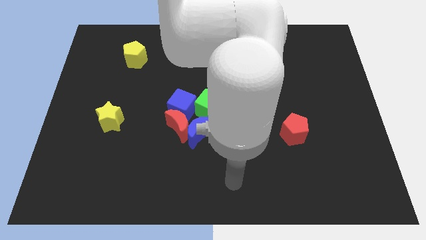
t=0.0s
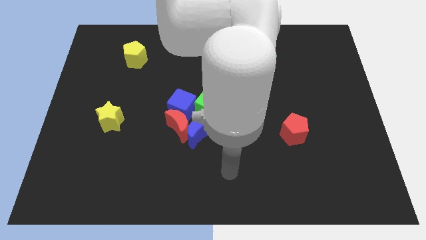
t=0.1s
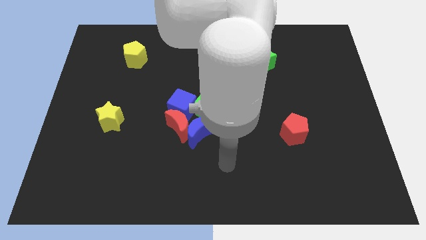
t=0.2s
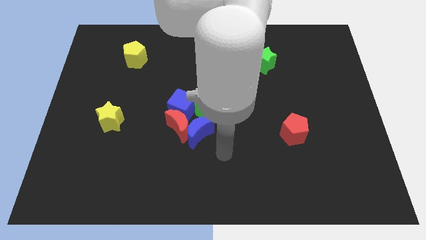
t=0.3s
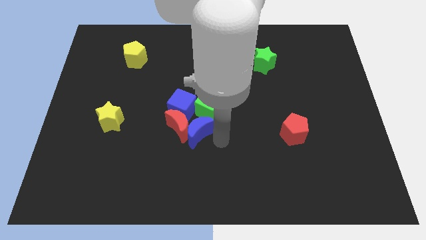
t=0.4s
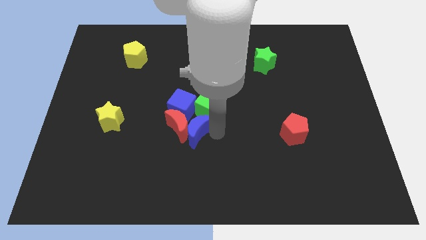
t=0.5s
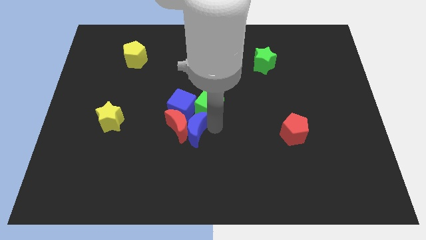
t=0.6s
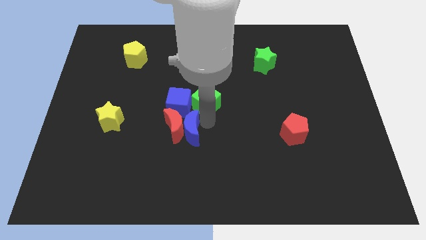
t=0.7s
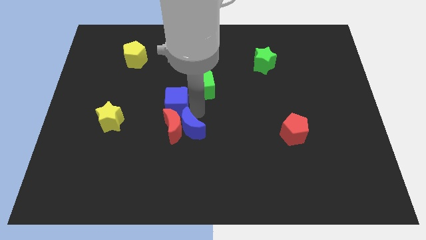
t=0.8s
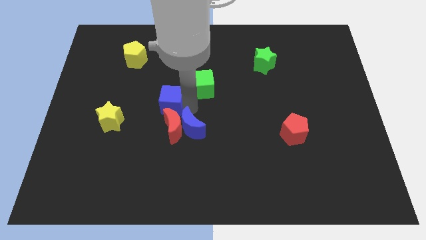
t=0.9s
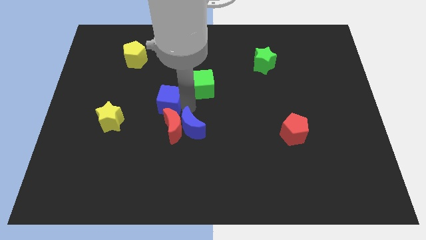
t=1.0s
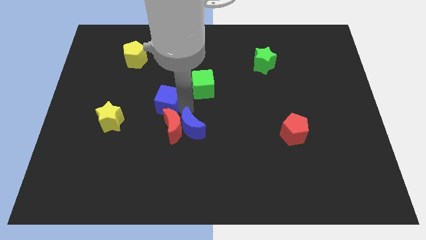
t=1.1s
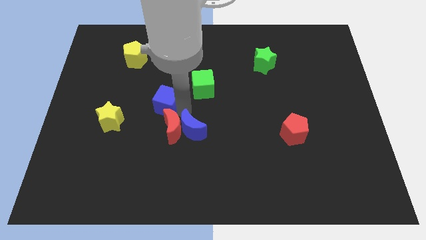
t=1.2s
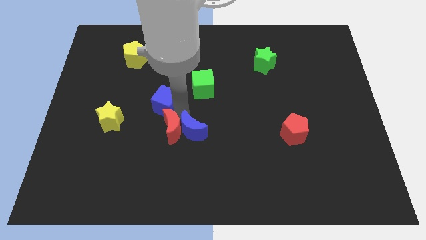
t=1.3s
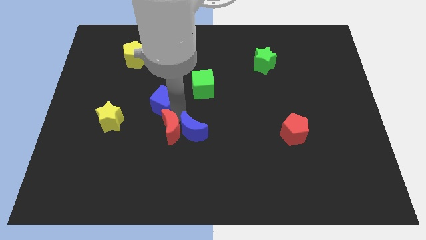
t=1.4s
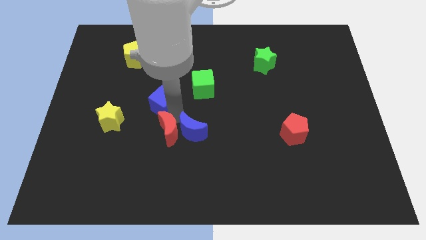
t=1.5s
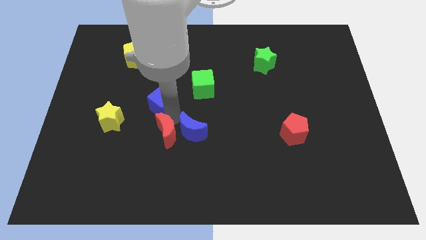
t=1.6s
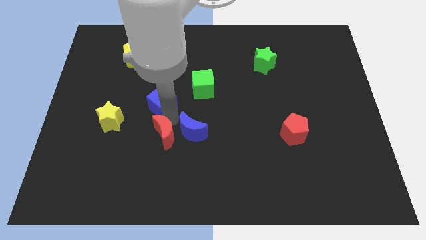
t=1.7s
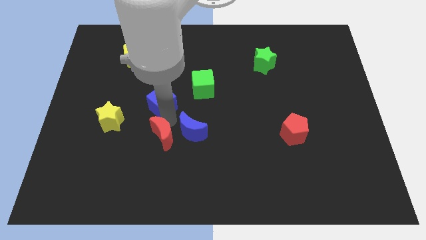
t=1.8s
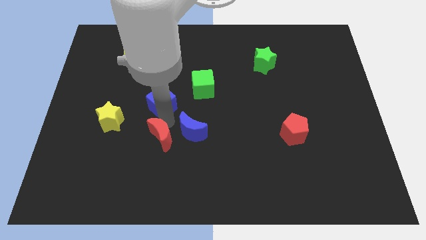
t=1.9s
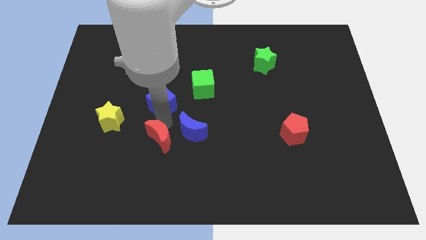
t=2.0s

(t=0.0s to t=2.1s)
separate the red moon from the clump

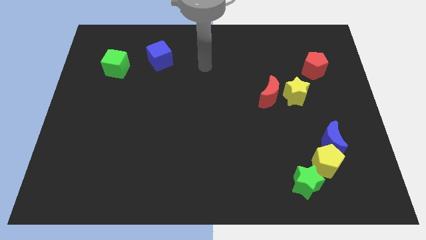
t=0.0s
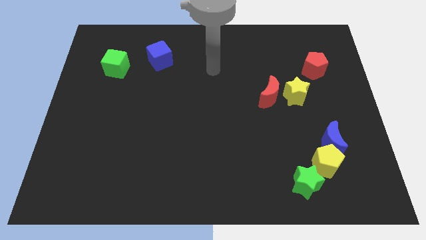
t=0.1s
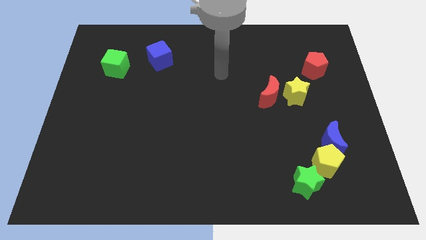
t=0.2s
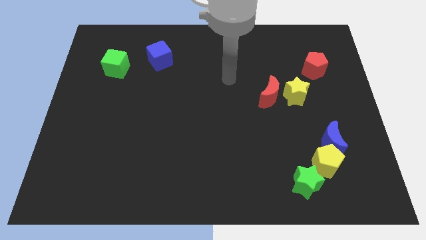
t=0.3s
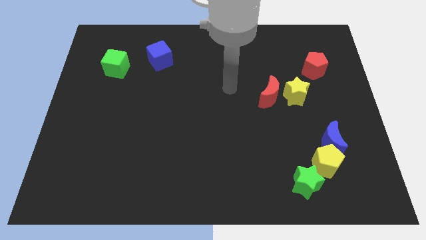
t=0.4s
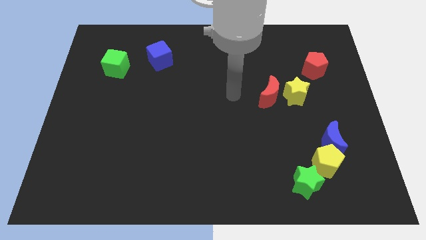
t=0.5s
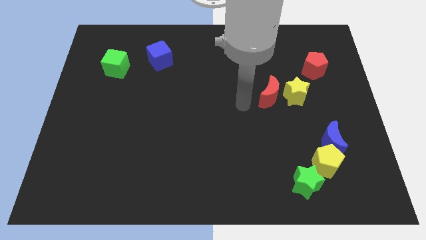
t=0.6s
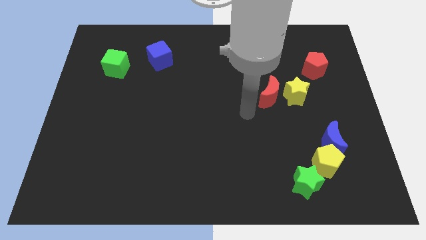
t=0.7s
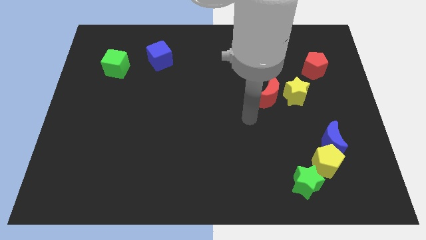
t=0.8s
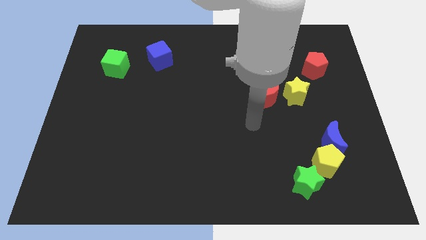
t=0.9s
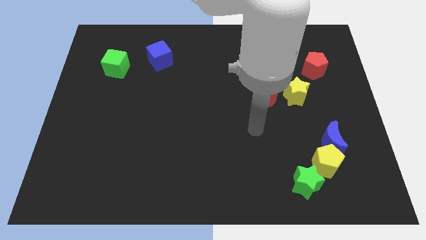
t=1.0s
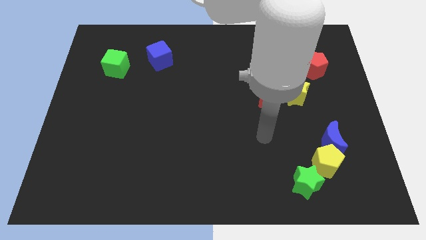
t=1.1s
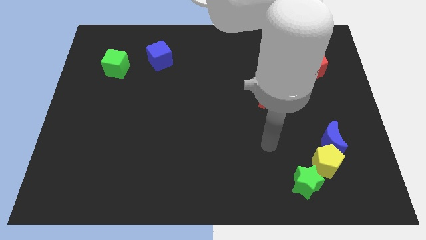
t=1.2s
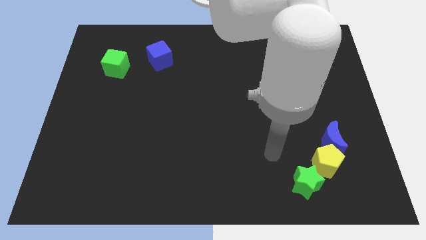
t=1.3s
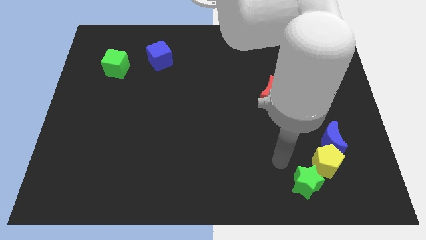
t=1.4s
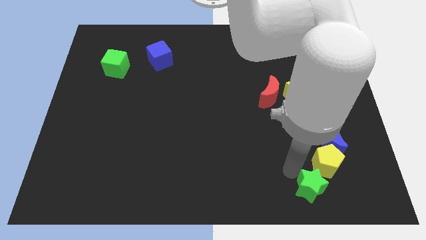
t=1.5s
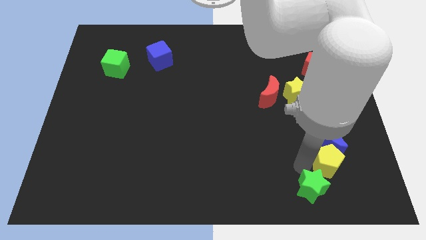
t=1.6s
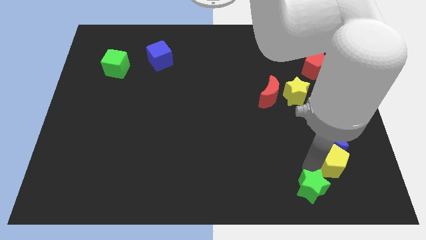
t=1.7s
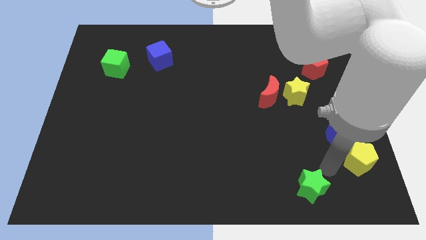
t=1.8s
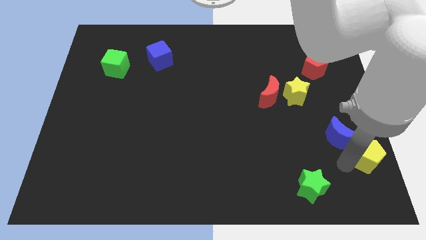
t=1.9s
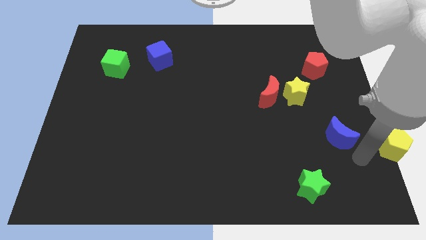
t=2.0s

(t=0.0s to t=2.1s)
pull the blue moon apart from the yellow pentagon

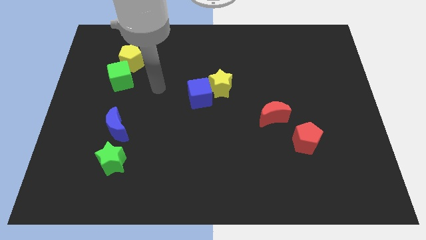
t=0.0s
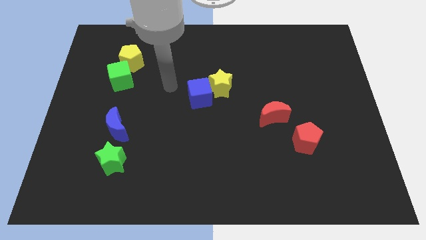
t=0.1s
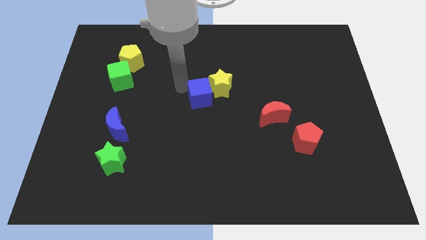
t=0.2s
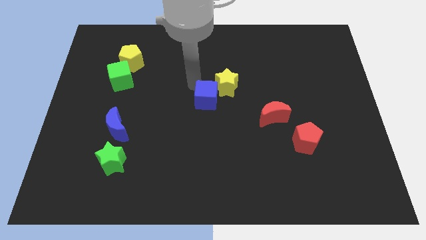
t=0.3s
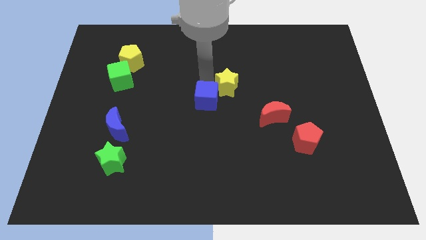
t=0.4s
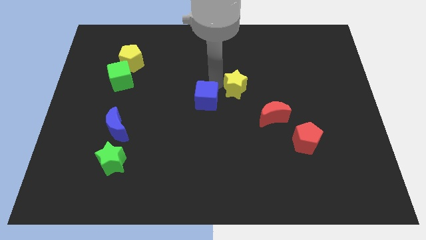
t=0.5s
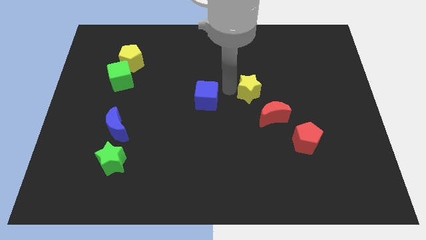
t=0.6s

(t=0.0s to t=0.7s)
move the blue cube away from the yellow star

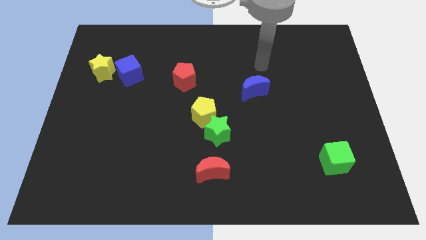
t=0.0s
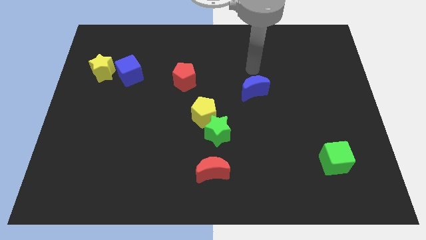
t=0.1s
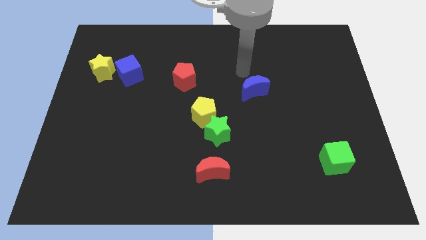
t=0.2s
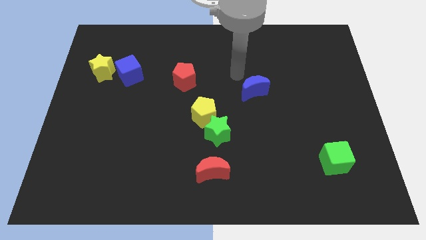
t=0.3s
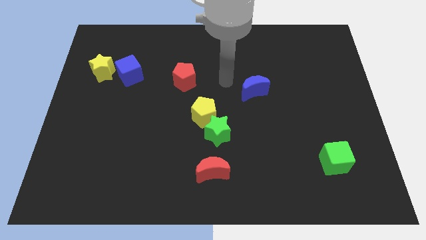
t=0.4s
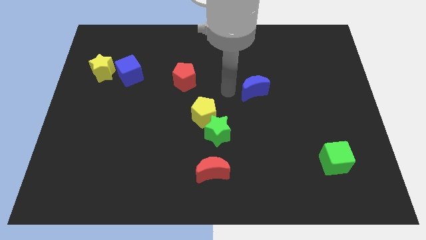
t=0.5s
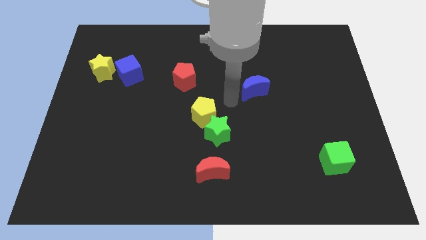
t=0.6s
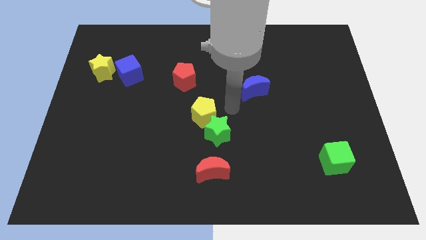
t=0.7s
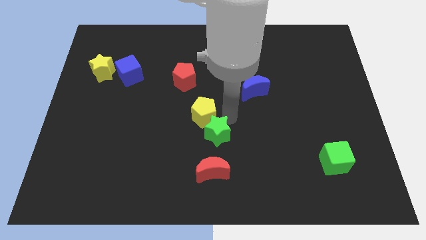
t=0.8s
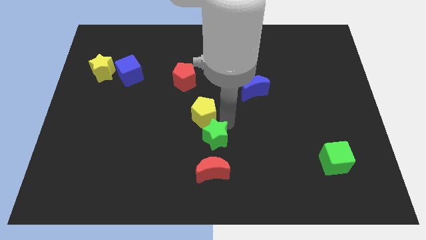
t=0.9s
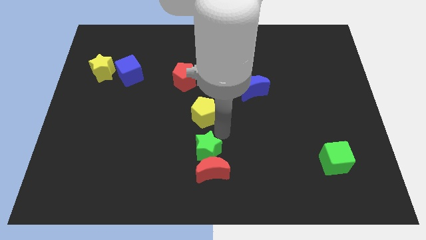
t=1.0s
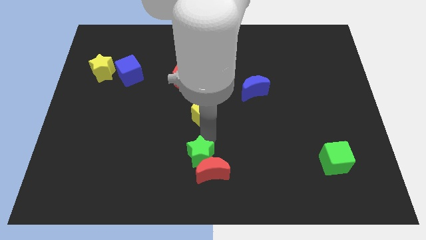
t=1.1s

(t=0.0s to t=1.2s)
pull the yellow pentagon apart from the green star

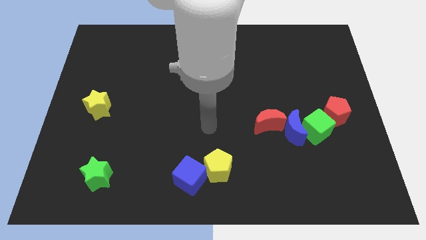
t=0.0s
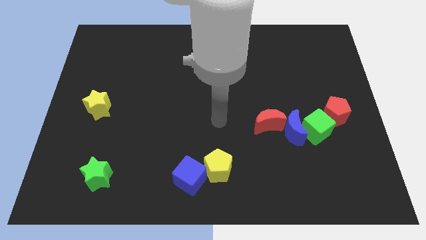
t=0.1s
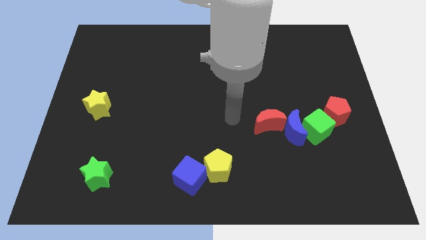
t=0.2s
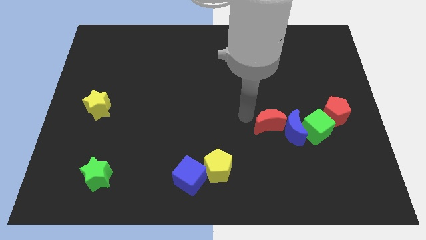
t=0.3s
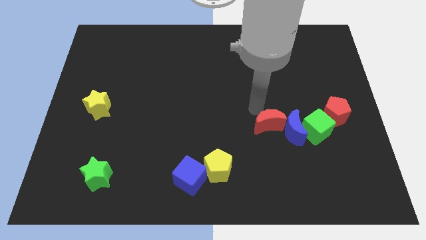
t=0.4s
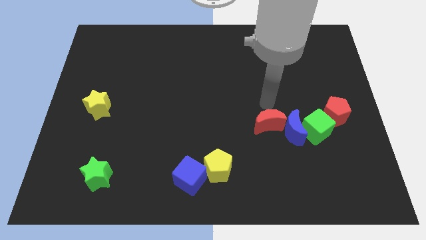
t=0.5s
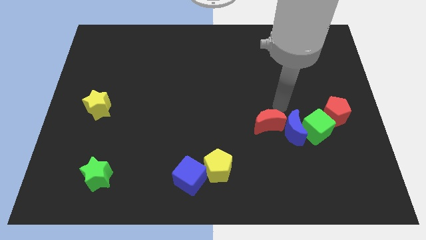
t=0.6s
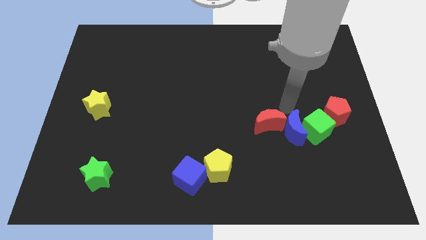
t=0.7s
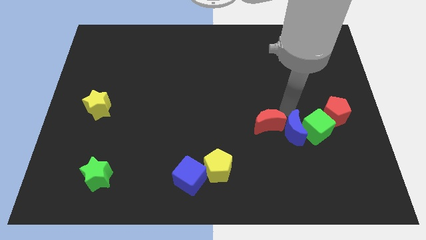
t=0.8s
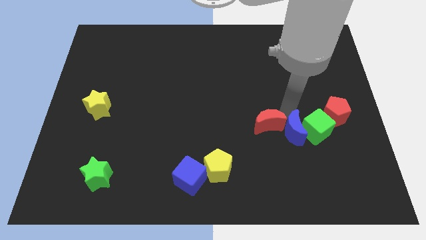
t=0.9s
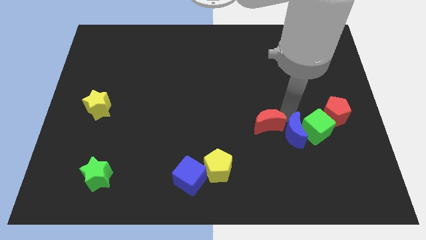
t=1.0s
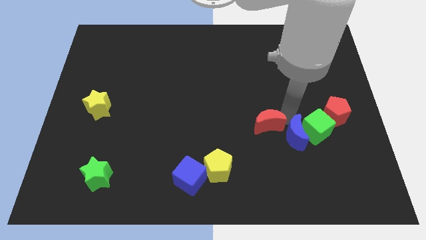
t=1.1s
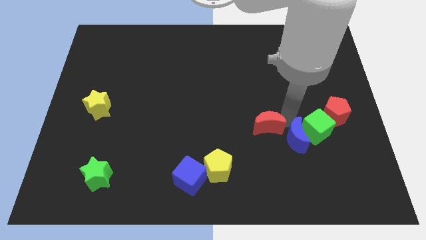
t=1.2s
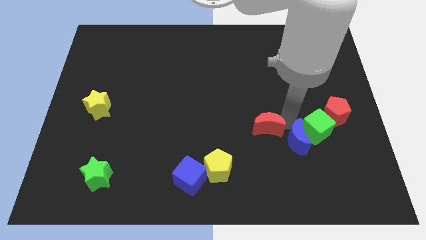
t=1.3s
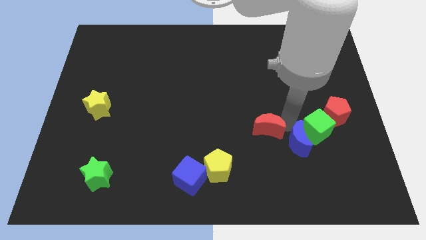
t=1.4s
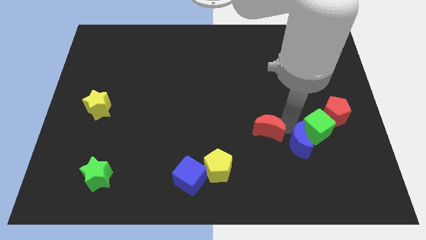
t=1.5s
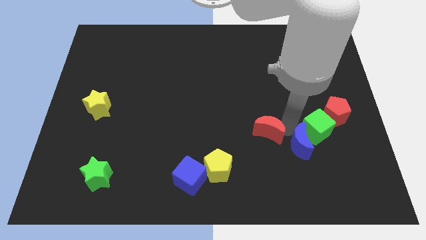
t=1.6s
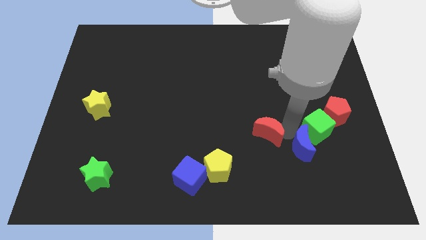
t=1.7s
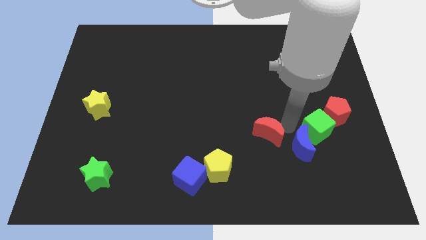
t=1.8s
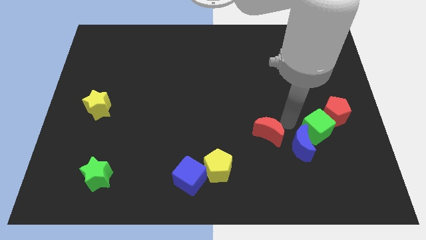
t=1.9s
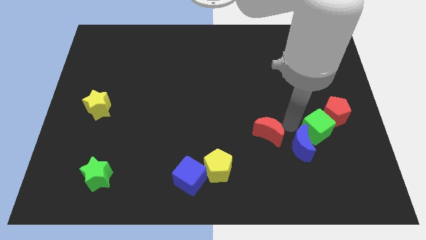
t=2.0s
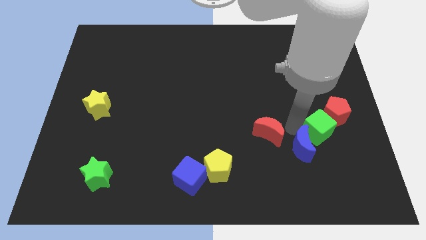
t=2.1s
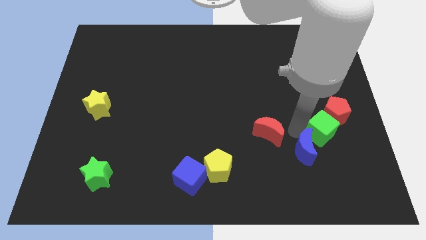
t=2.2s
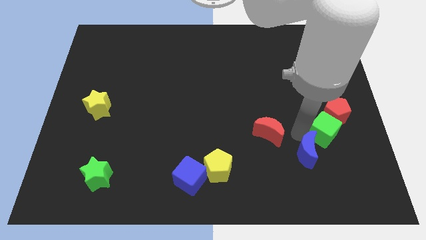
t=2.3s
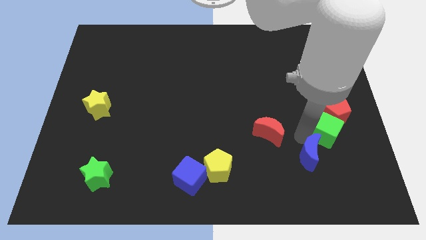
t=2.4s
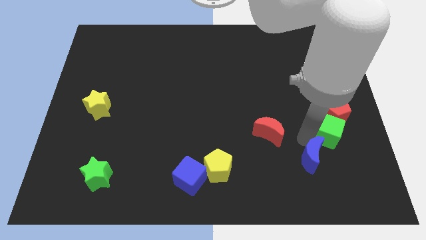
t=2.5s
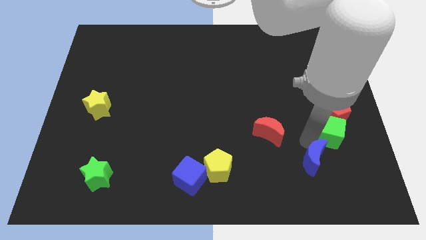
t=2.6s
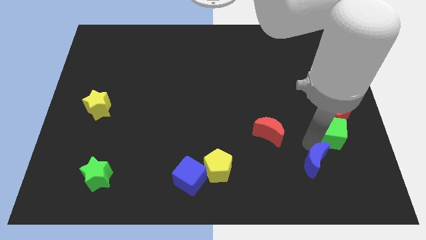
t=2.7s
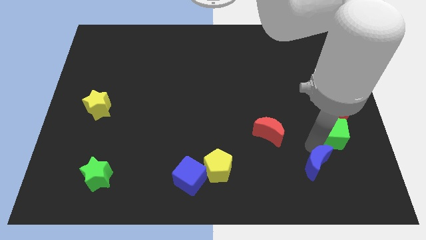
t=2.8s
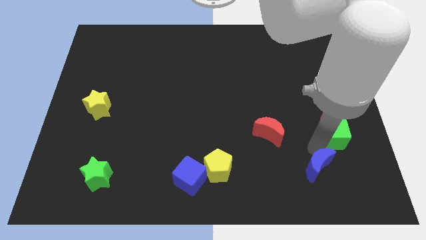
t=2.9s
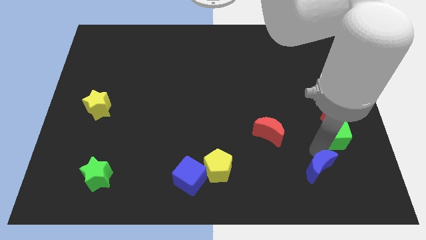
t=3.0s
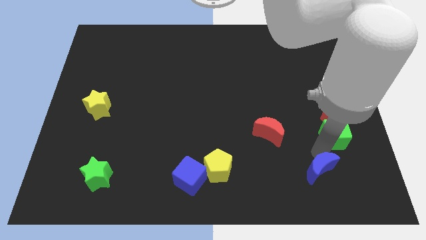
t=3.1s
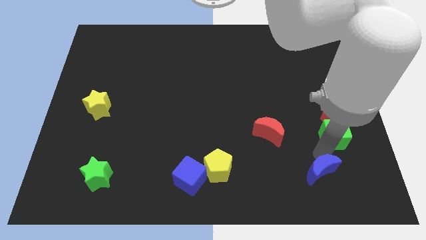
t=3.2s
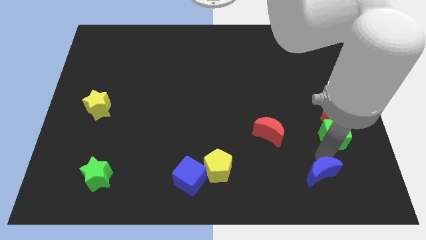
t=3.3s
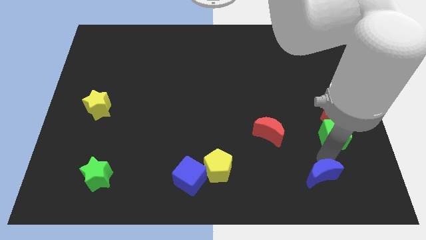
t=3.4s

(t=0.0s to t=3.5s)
move the blue moon away from the green cube and red moon
